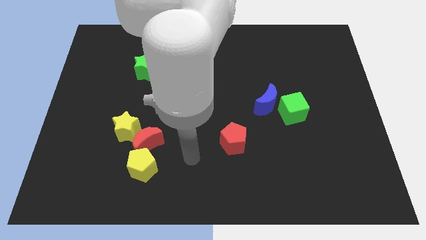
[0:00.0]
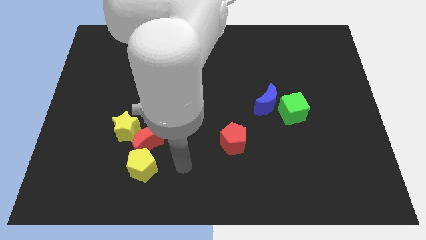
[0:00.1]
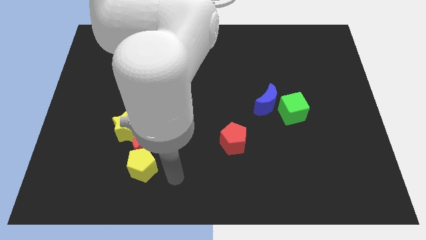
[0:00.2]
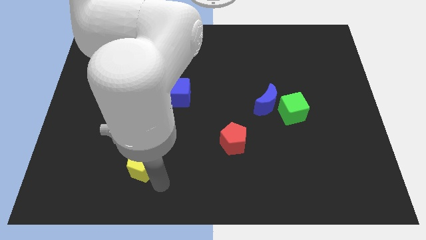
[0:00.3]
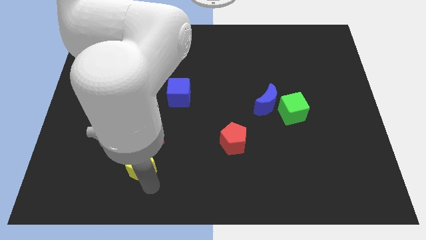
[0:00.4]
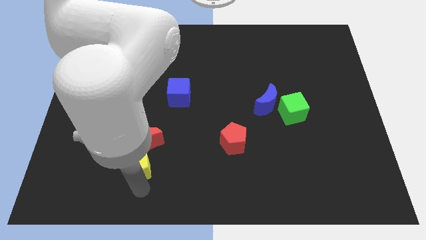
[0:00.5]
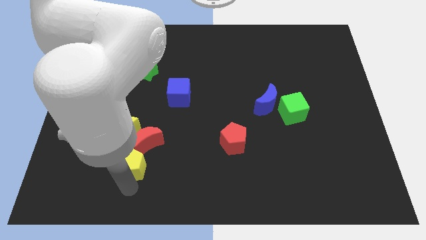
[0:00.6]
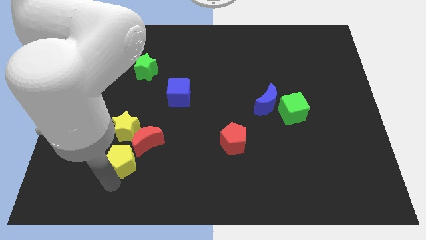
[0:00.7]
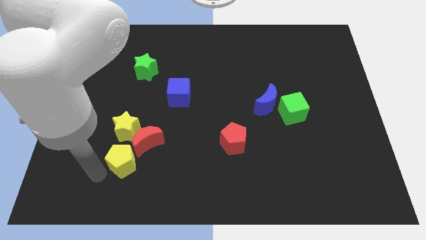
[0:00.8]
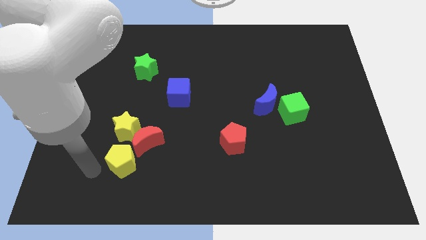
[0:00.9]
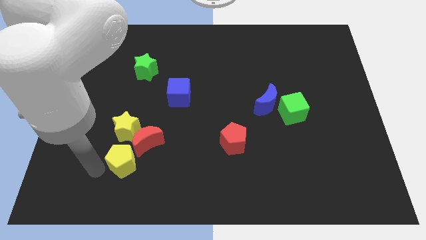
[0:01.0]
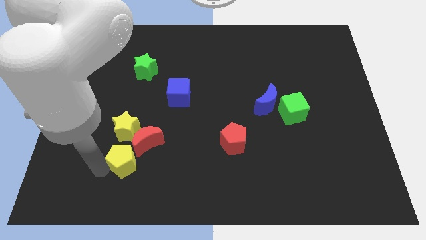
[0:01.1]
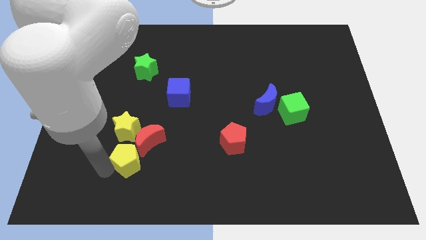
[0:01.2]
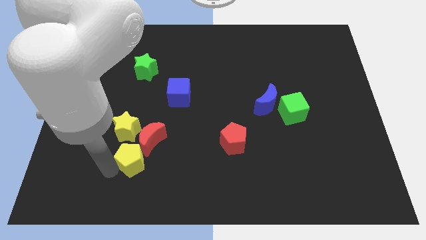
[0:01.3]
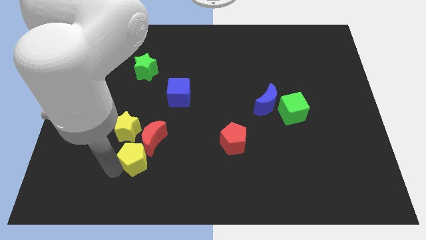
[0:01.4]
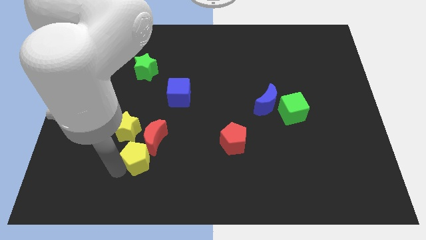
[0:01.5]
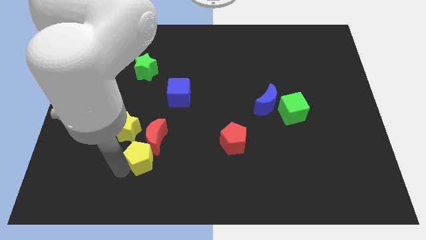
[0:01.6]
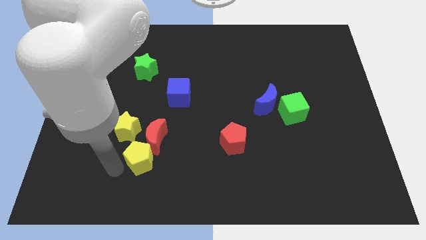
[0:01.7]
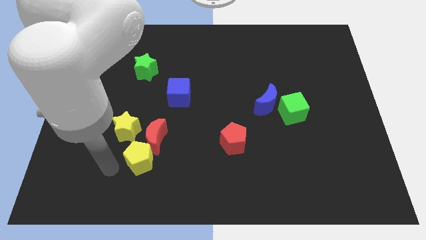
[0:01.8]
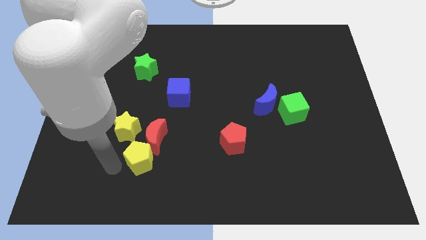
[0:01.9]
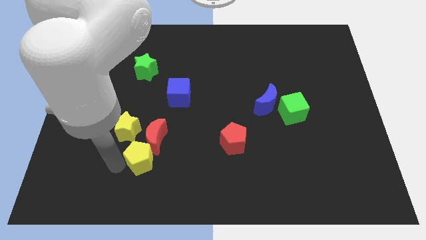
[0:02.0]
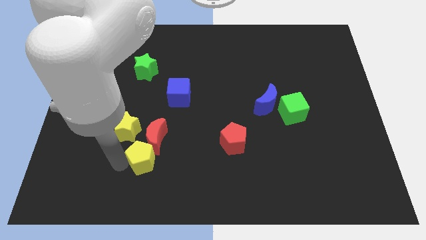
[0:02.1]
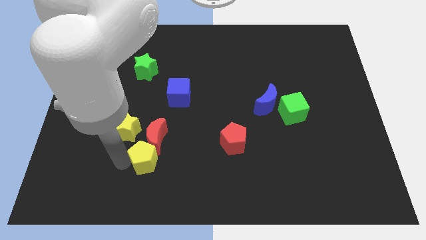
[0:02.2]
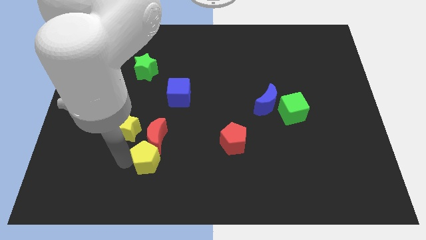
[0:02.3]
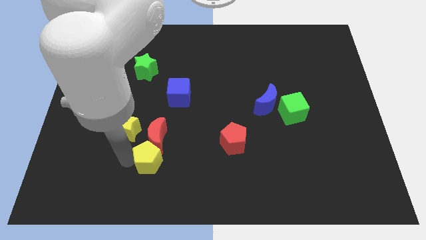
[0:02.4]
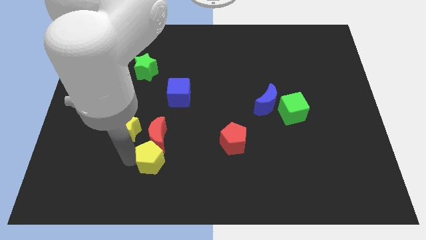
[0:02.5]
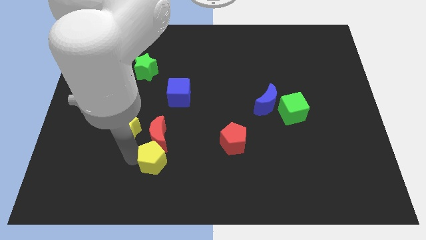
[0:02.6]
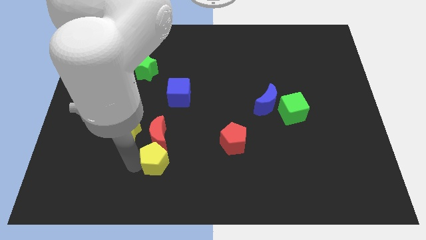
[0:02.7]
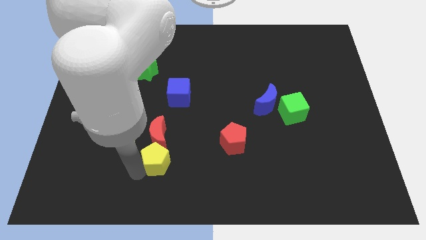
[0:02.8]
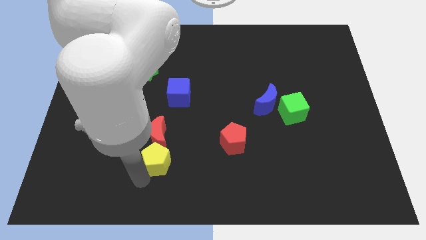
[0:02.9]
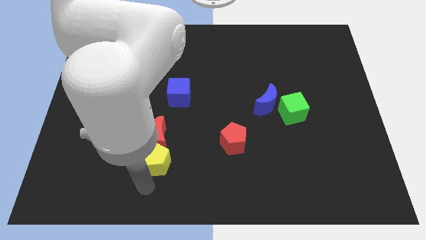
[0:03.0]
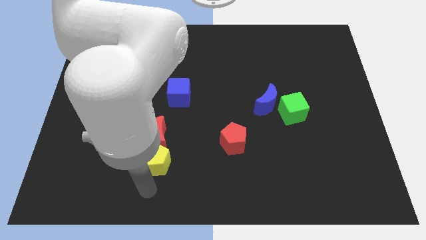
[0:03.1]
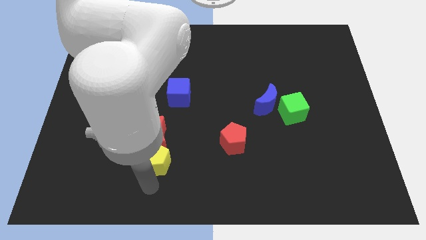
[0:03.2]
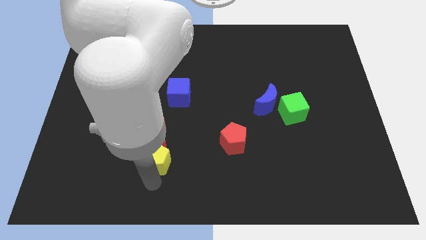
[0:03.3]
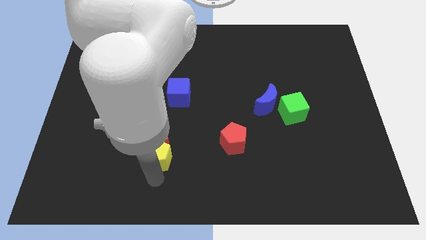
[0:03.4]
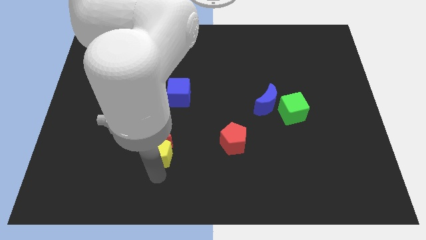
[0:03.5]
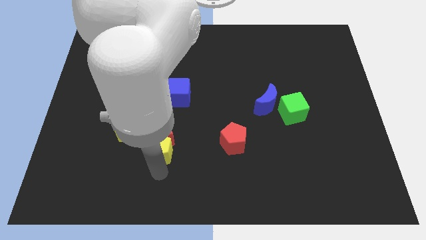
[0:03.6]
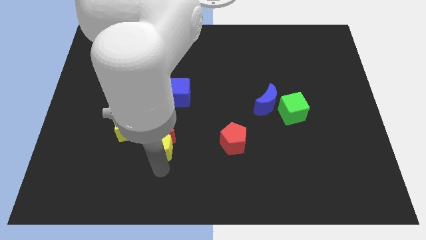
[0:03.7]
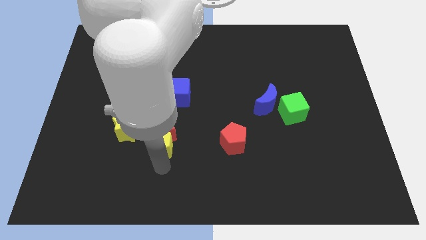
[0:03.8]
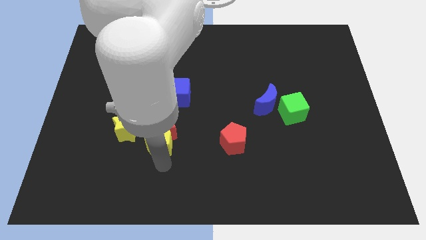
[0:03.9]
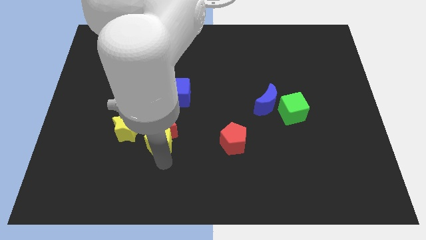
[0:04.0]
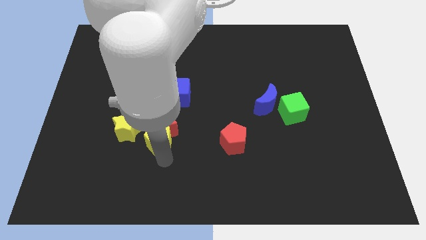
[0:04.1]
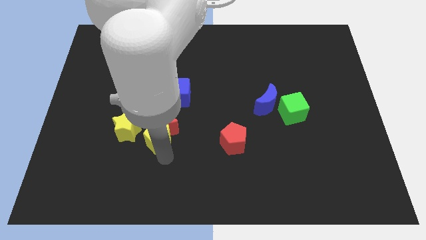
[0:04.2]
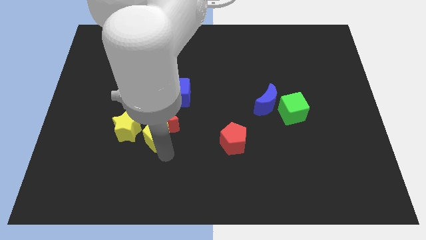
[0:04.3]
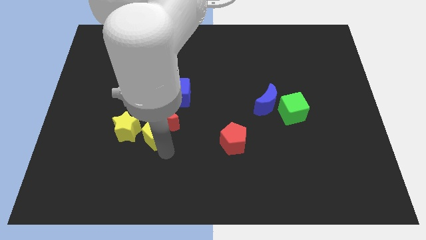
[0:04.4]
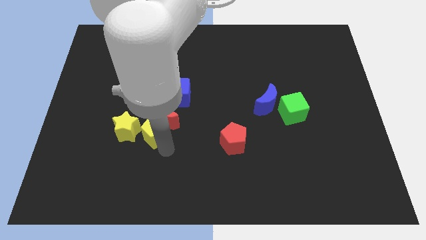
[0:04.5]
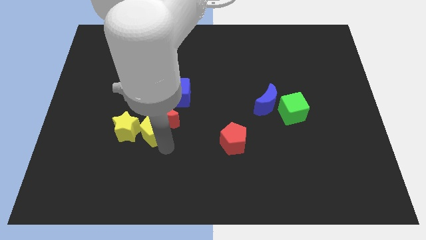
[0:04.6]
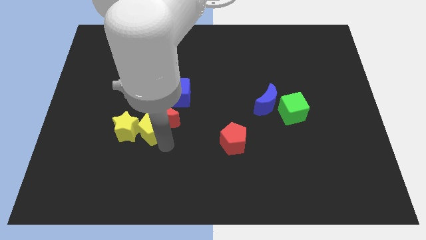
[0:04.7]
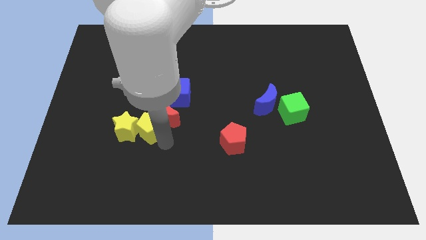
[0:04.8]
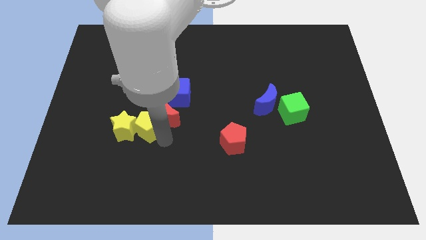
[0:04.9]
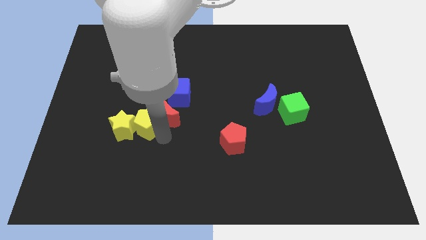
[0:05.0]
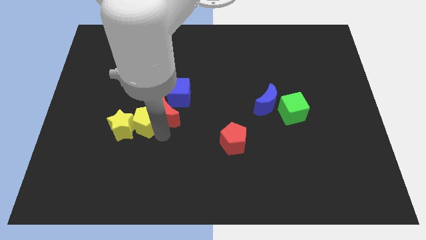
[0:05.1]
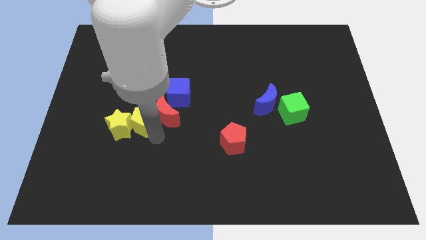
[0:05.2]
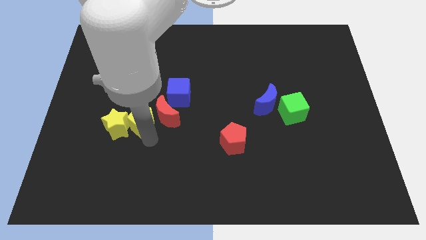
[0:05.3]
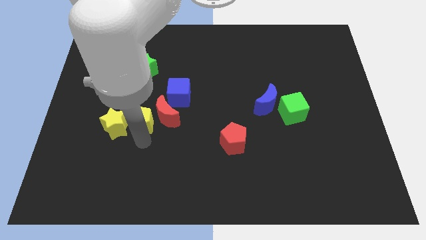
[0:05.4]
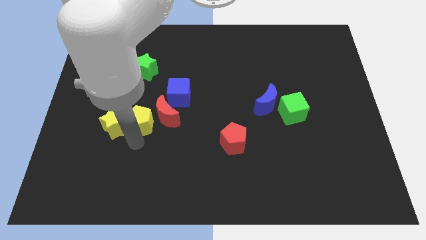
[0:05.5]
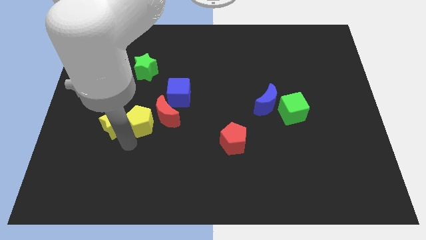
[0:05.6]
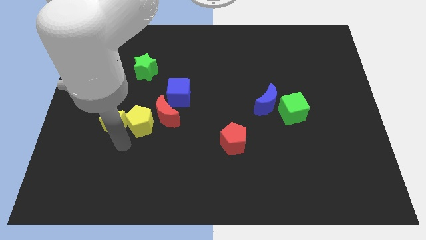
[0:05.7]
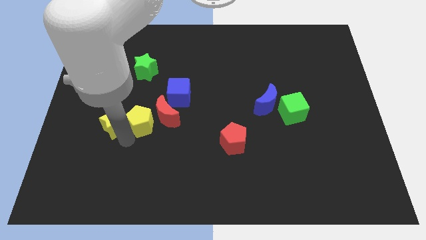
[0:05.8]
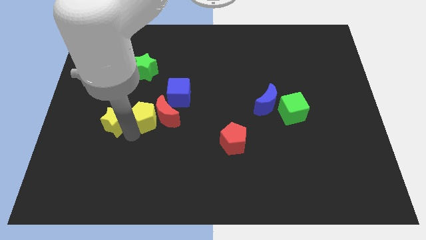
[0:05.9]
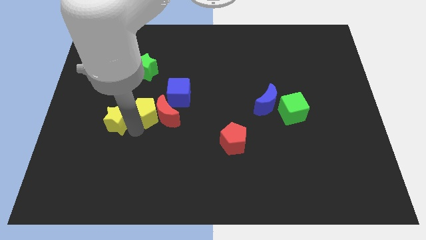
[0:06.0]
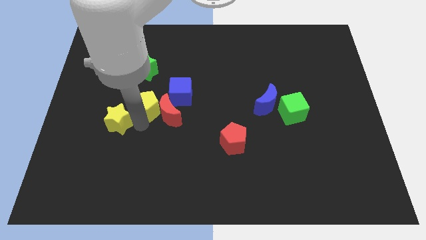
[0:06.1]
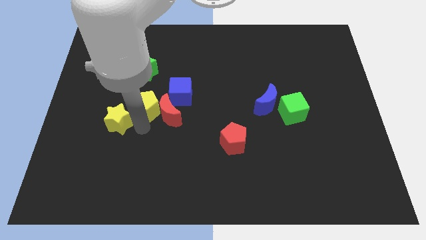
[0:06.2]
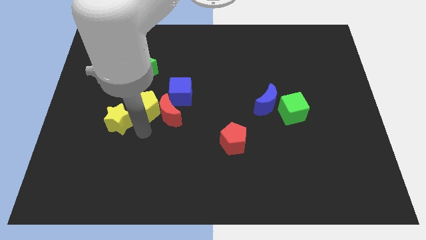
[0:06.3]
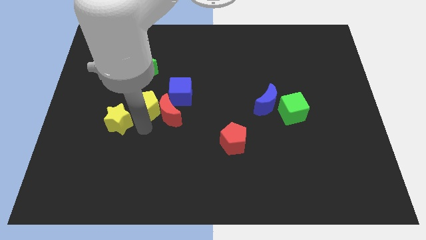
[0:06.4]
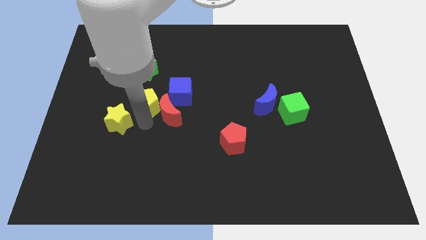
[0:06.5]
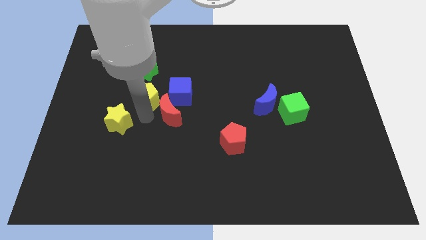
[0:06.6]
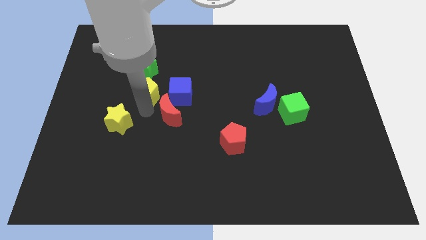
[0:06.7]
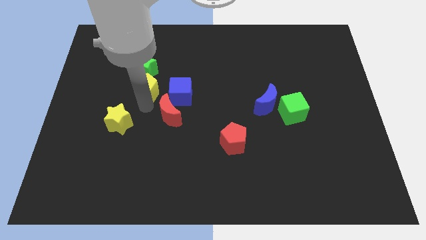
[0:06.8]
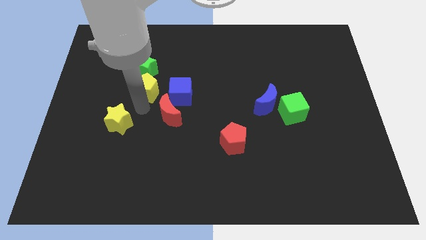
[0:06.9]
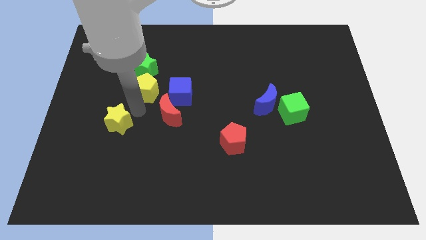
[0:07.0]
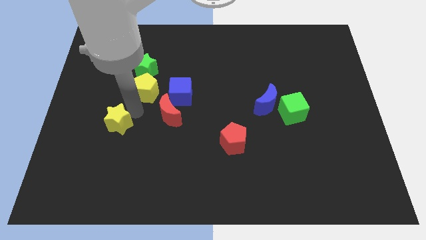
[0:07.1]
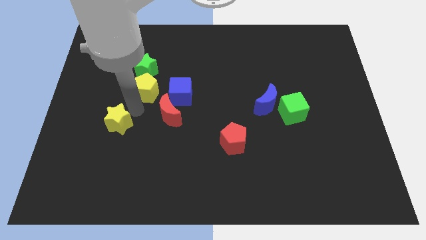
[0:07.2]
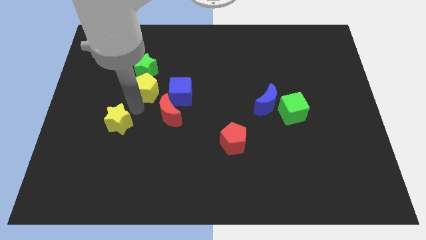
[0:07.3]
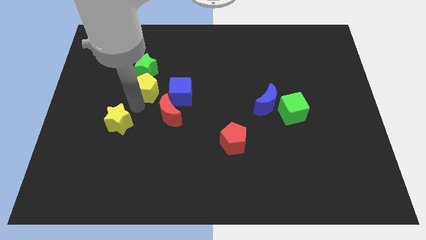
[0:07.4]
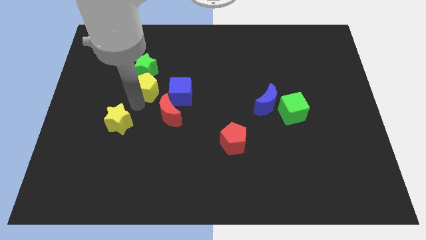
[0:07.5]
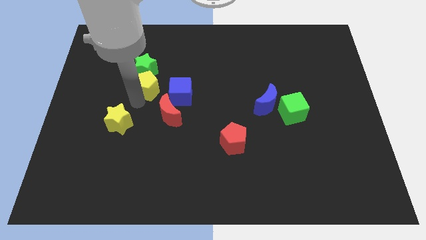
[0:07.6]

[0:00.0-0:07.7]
put the yellow pentagon next to the green star
